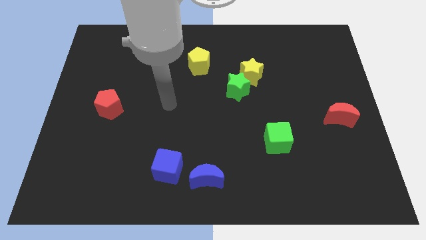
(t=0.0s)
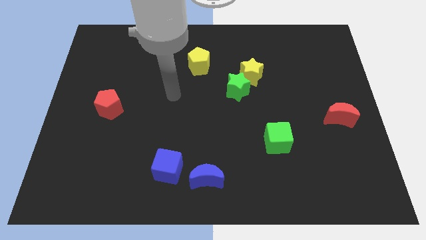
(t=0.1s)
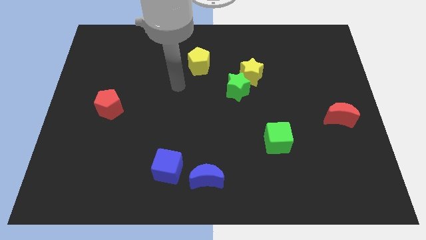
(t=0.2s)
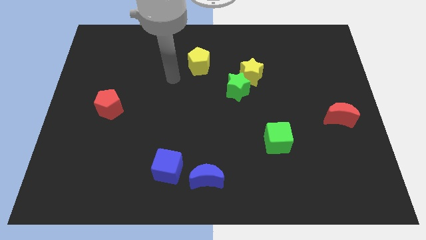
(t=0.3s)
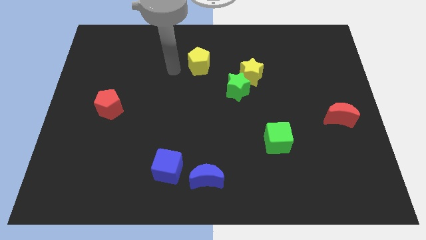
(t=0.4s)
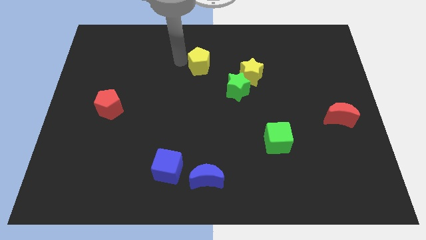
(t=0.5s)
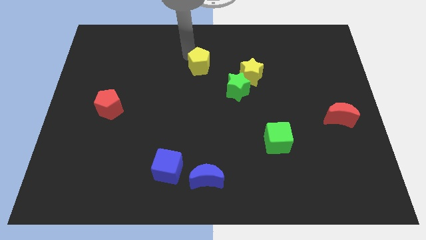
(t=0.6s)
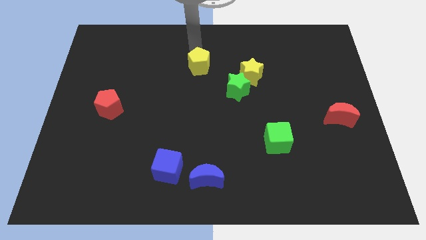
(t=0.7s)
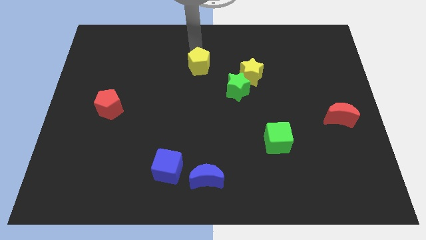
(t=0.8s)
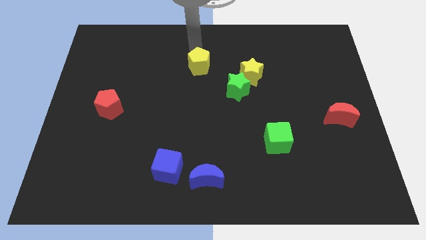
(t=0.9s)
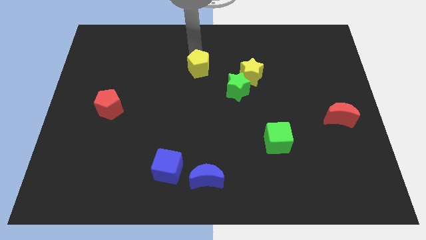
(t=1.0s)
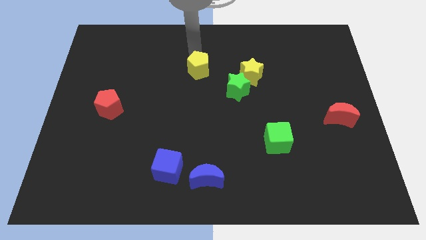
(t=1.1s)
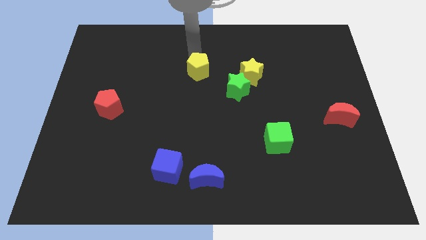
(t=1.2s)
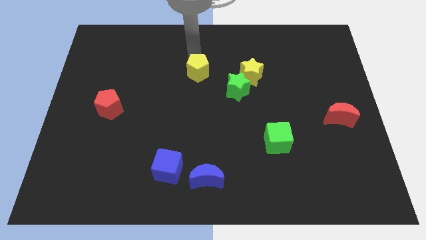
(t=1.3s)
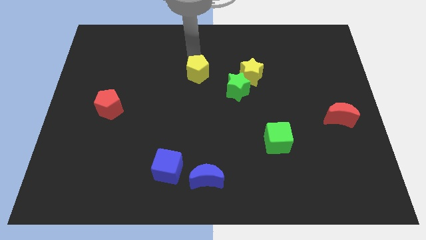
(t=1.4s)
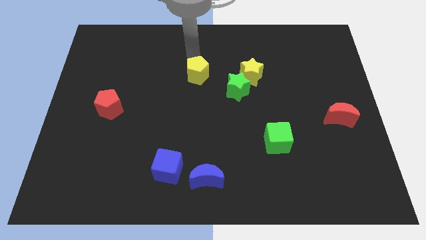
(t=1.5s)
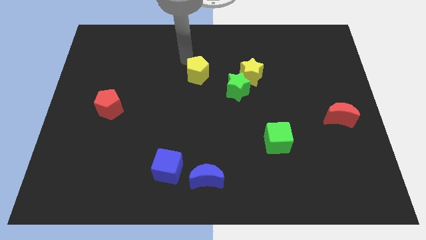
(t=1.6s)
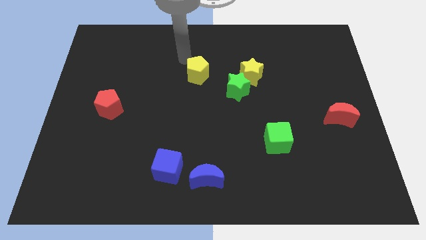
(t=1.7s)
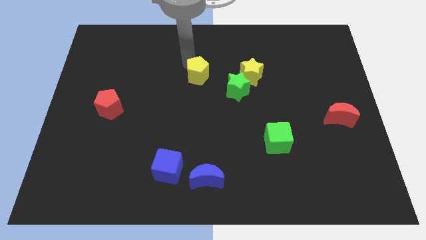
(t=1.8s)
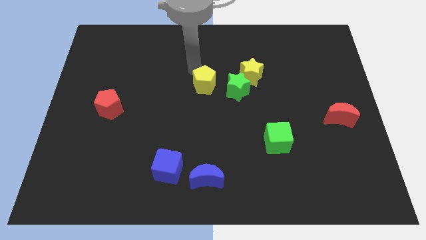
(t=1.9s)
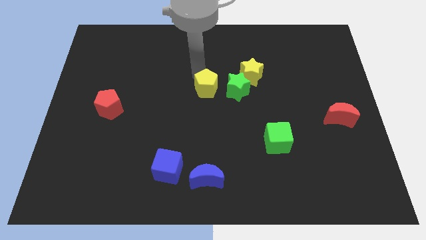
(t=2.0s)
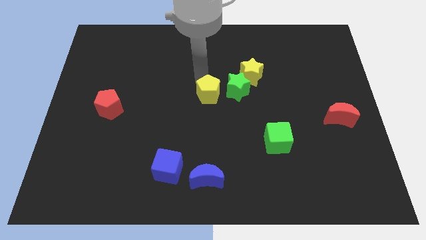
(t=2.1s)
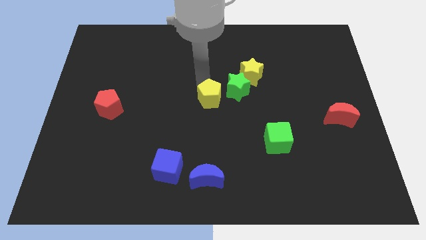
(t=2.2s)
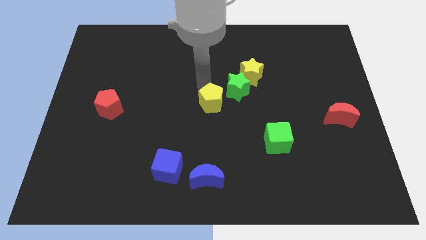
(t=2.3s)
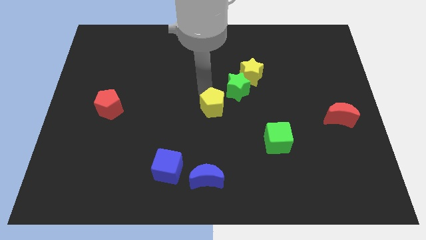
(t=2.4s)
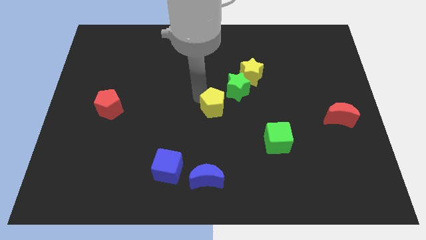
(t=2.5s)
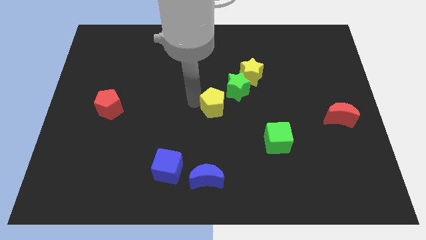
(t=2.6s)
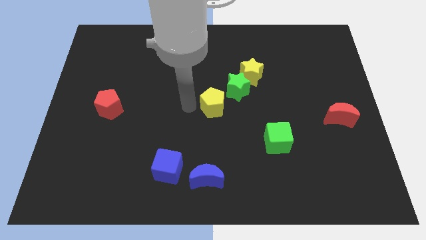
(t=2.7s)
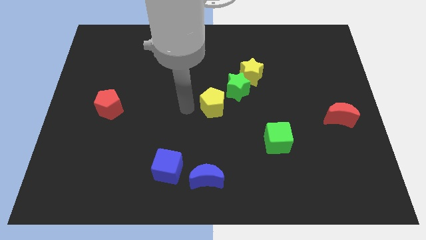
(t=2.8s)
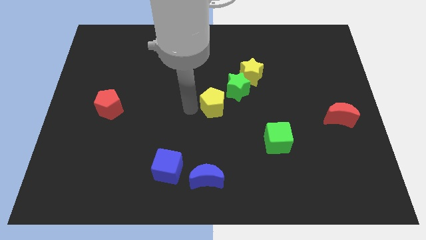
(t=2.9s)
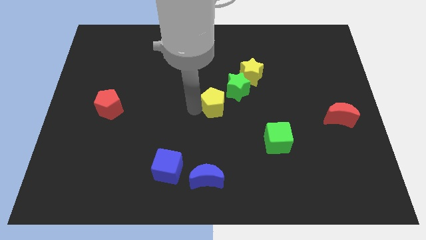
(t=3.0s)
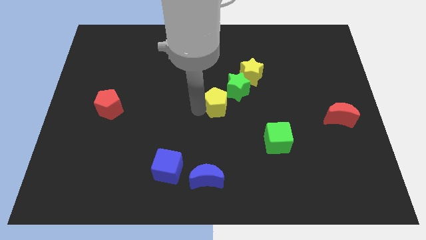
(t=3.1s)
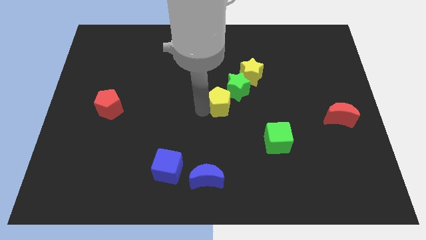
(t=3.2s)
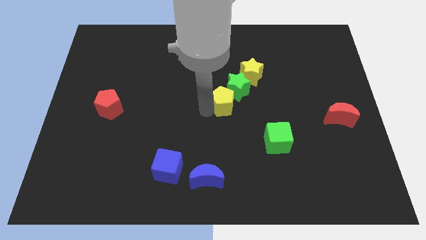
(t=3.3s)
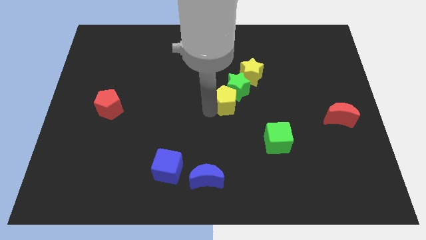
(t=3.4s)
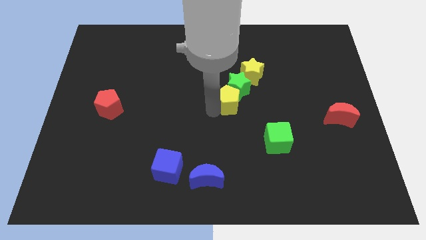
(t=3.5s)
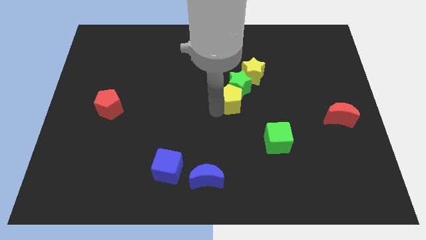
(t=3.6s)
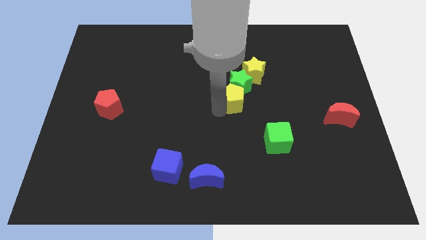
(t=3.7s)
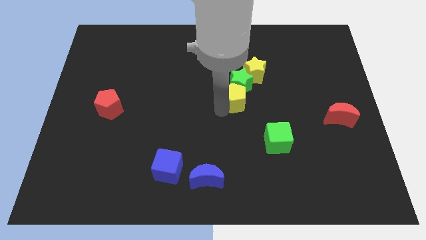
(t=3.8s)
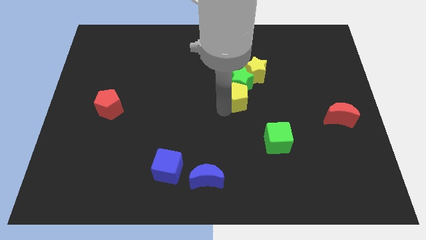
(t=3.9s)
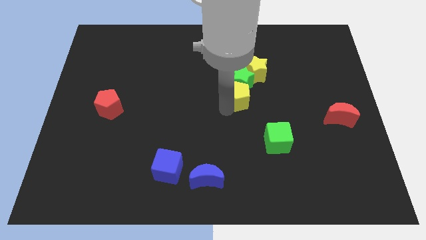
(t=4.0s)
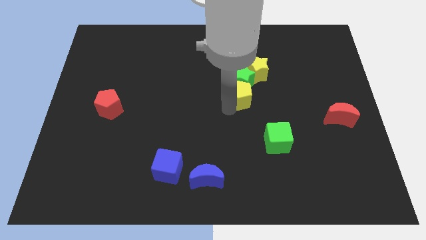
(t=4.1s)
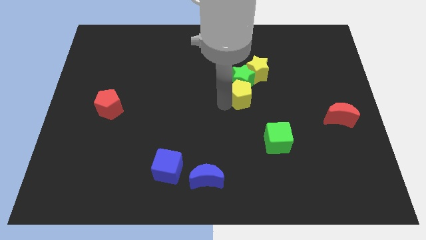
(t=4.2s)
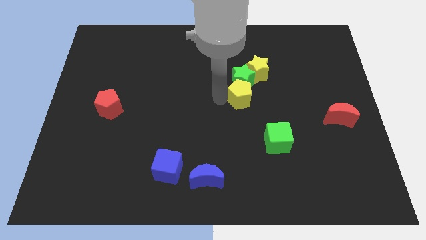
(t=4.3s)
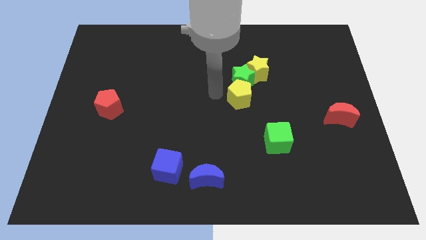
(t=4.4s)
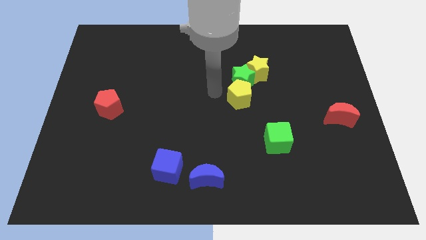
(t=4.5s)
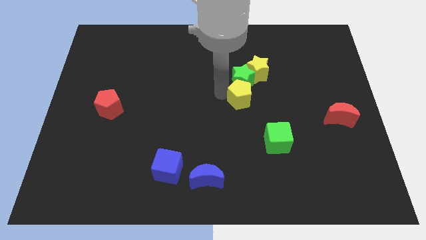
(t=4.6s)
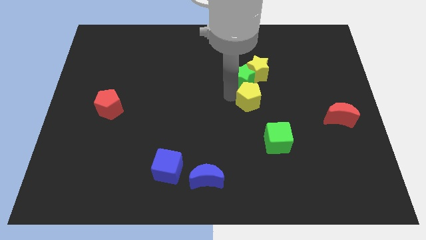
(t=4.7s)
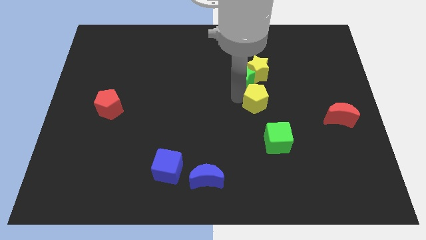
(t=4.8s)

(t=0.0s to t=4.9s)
push the yellow pentagon to the top side of the green cube

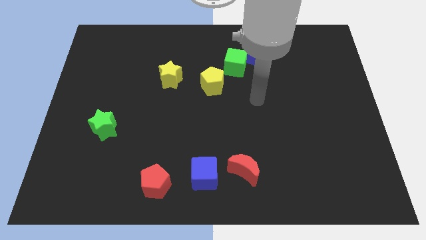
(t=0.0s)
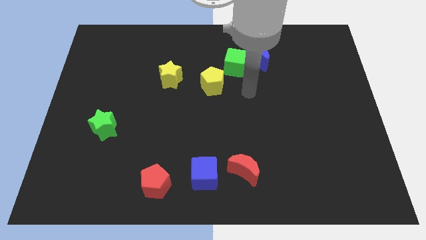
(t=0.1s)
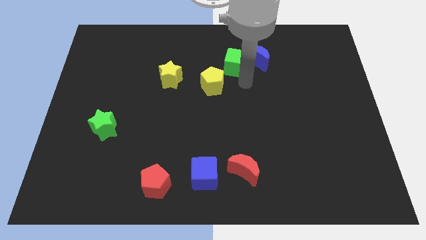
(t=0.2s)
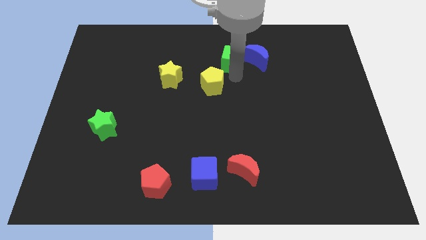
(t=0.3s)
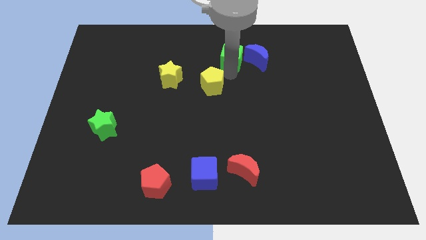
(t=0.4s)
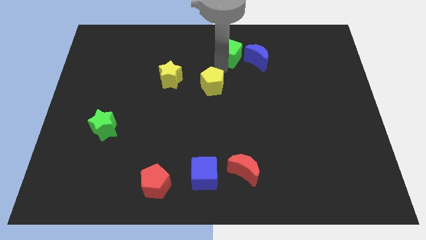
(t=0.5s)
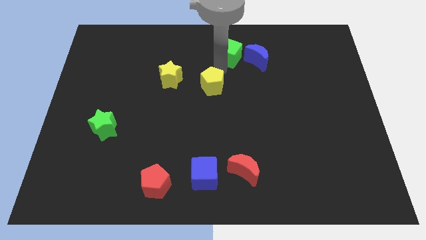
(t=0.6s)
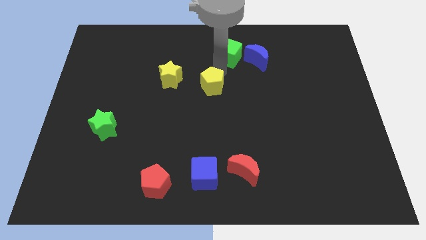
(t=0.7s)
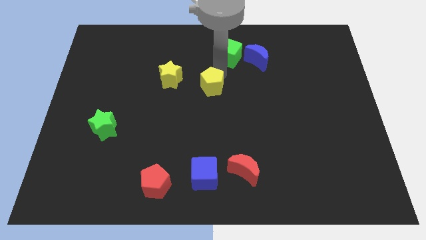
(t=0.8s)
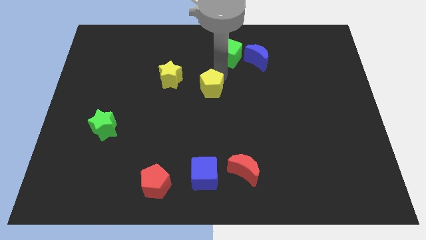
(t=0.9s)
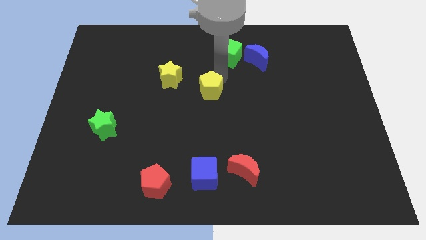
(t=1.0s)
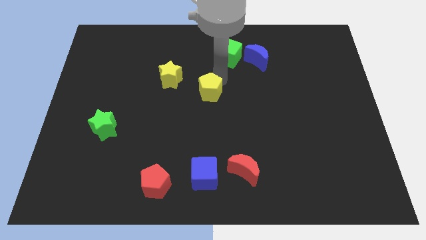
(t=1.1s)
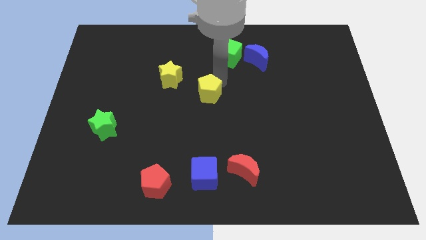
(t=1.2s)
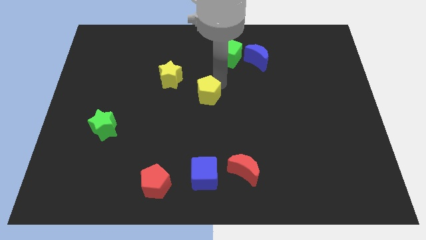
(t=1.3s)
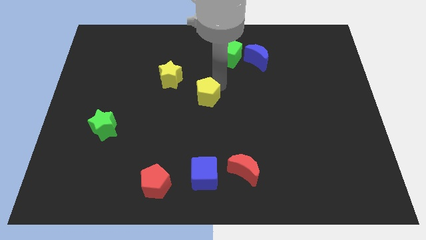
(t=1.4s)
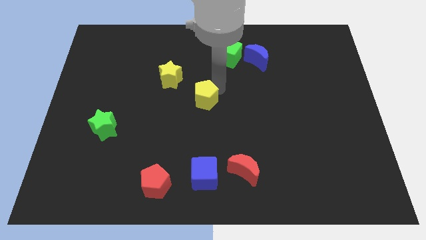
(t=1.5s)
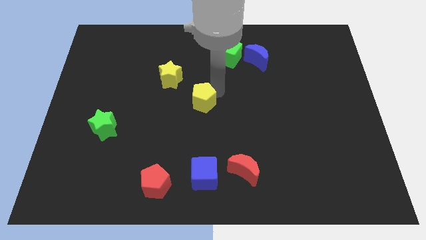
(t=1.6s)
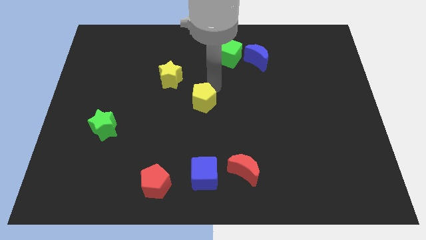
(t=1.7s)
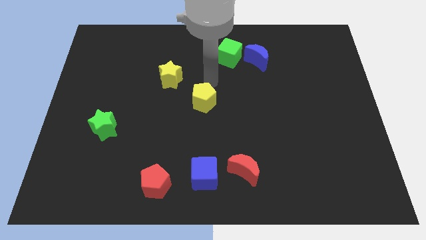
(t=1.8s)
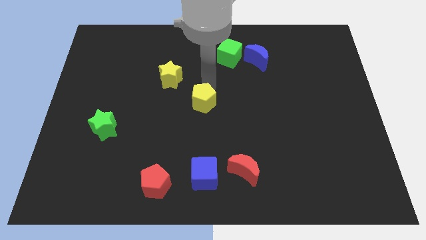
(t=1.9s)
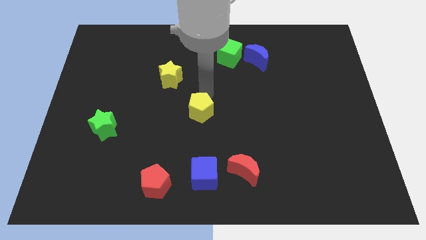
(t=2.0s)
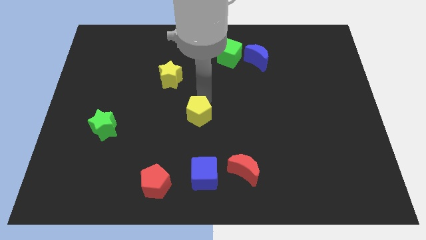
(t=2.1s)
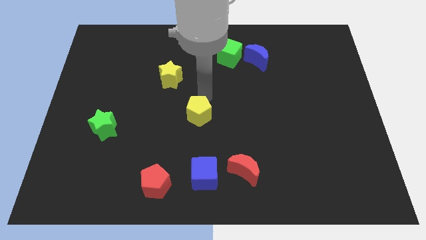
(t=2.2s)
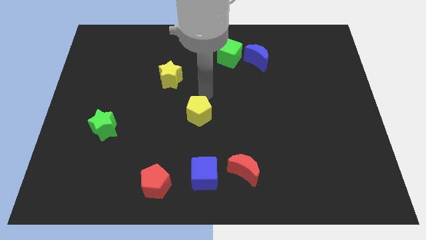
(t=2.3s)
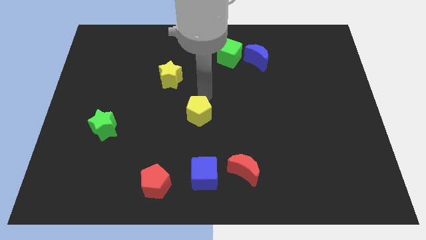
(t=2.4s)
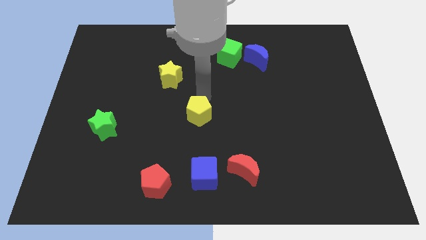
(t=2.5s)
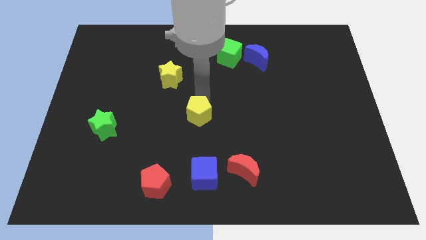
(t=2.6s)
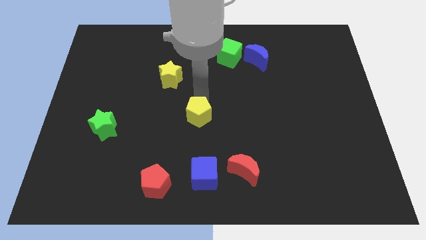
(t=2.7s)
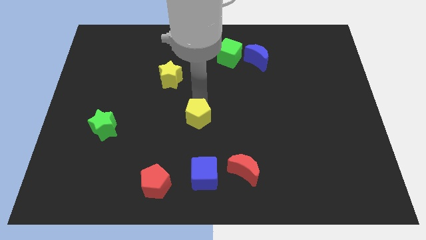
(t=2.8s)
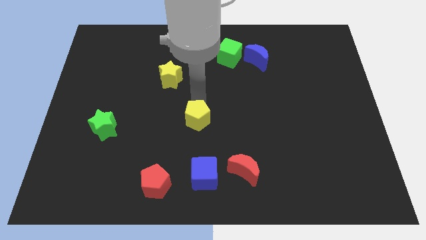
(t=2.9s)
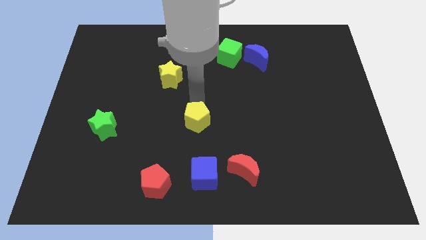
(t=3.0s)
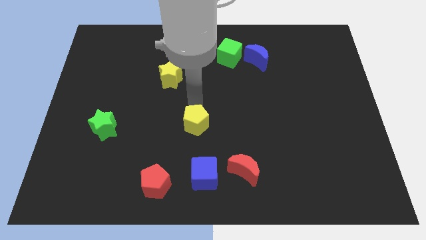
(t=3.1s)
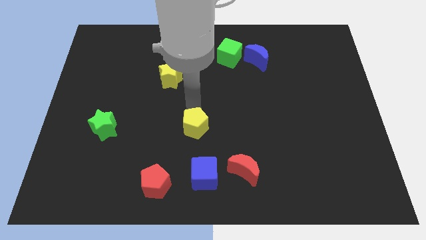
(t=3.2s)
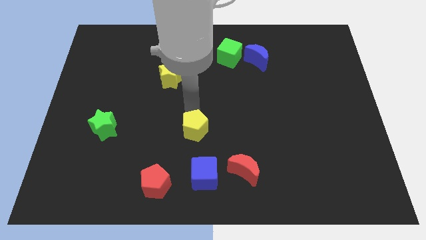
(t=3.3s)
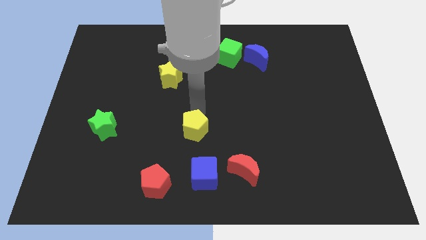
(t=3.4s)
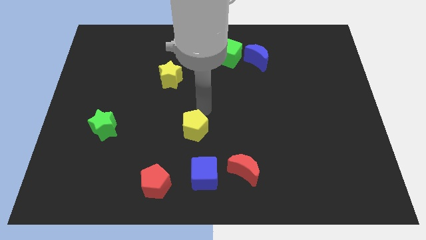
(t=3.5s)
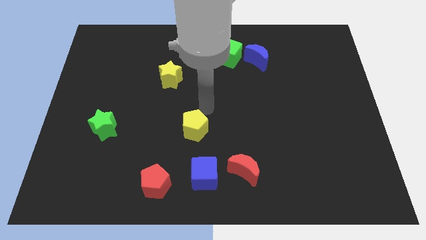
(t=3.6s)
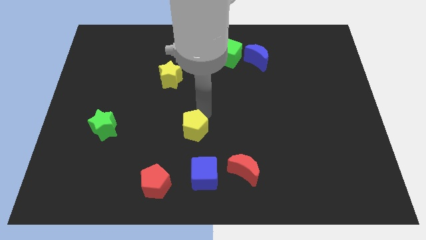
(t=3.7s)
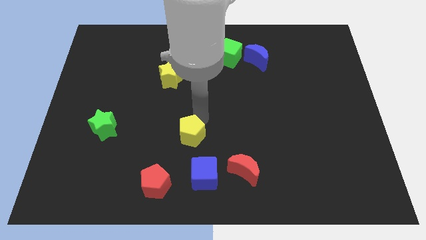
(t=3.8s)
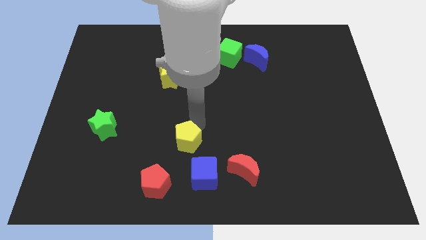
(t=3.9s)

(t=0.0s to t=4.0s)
slide the yellow pentagon diagonally up and to the left of the blue cube
